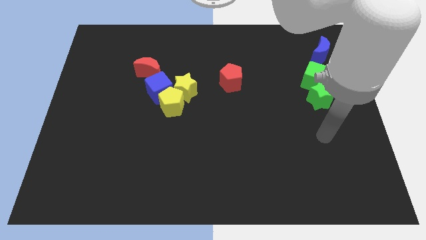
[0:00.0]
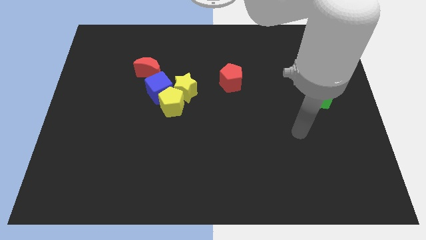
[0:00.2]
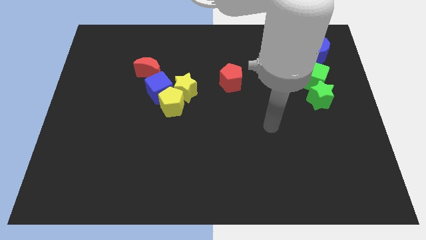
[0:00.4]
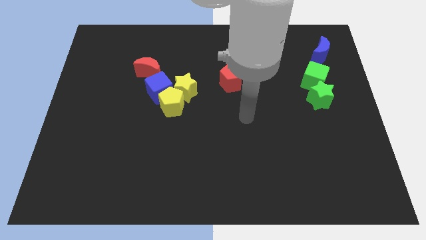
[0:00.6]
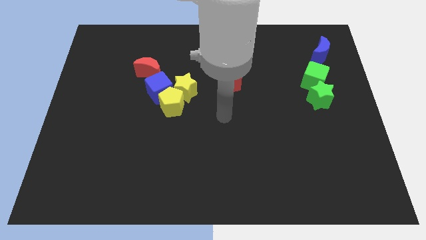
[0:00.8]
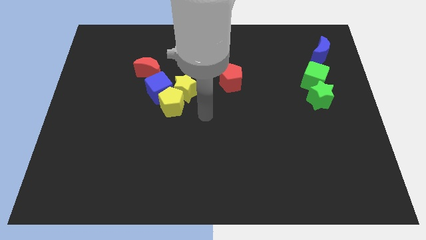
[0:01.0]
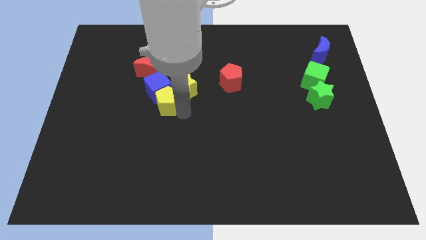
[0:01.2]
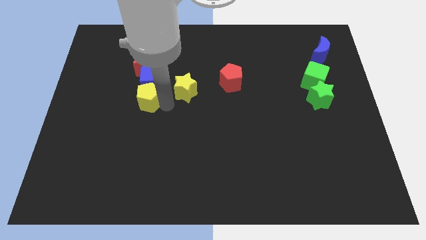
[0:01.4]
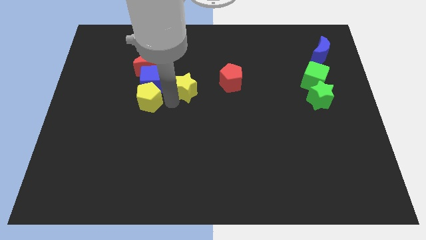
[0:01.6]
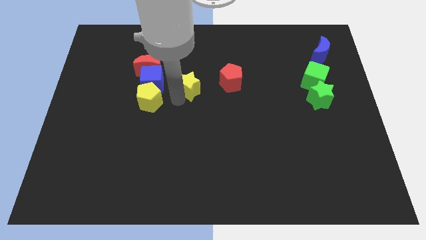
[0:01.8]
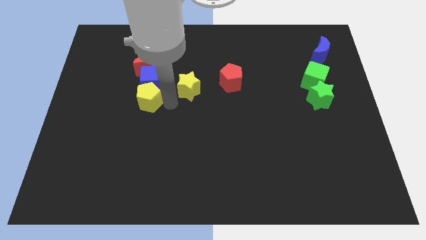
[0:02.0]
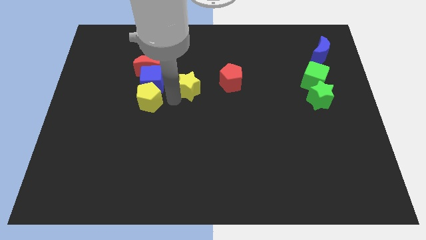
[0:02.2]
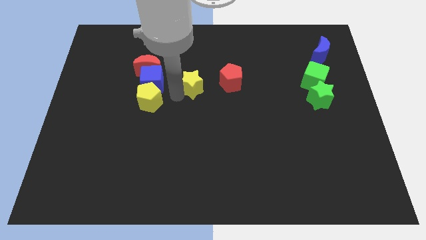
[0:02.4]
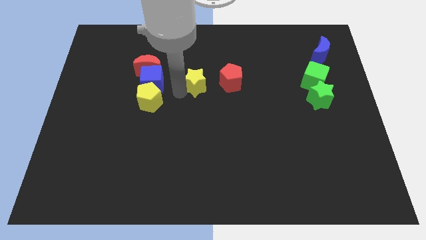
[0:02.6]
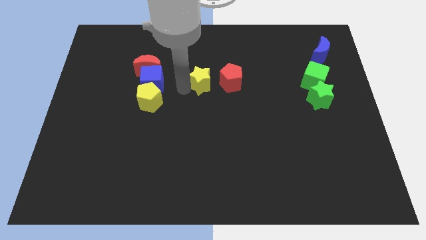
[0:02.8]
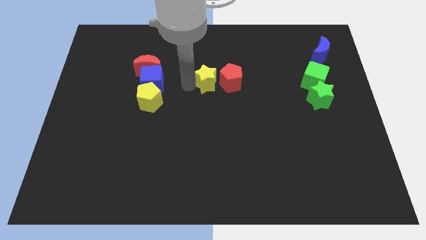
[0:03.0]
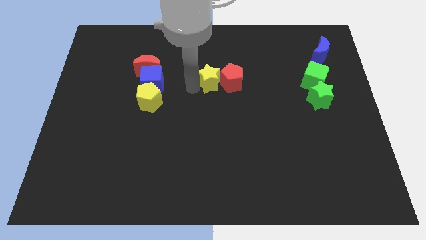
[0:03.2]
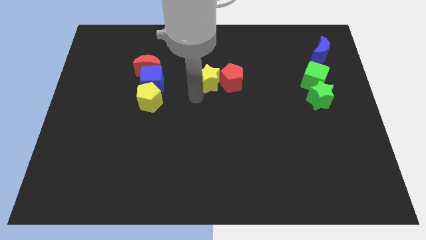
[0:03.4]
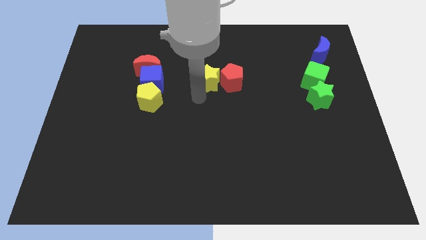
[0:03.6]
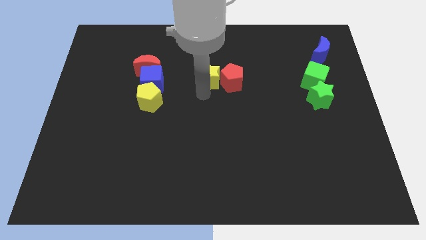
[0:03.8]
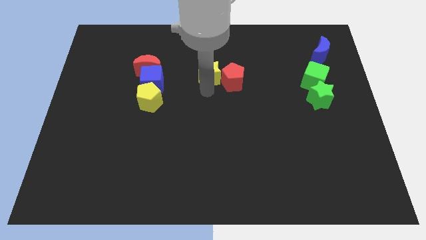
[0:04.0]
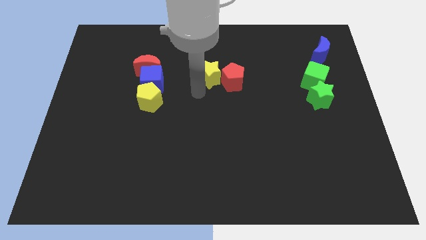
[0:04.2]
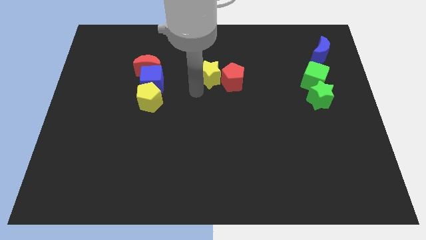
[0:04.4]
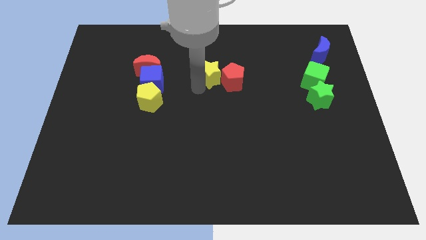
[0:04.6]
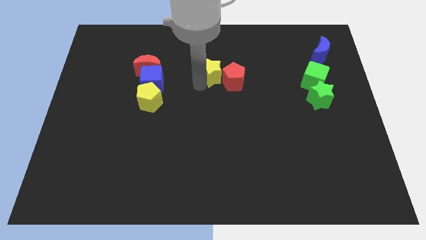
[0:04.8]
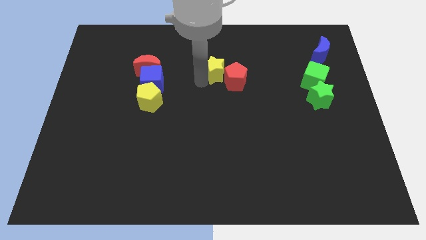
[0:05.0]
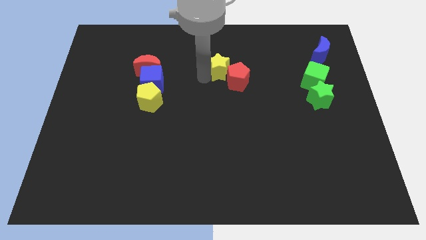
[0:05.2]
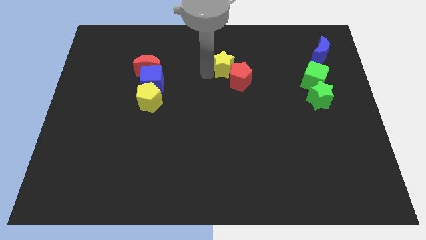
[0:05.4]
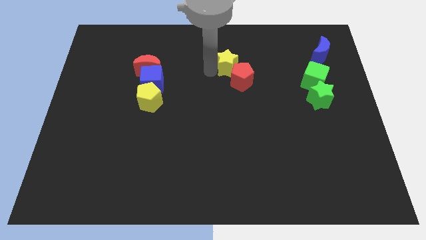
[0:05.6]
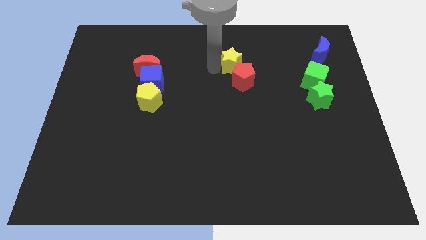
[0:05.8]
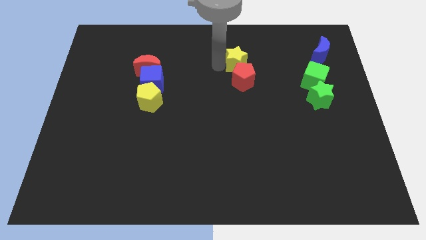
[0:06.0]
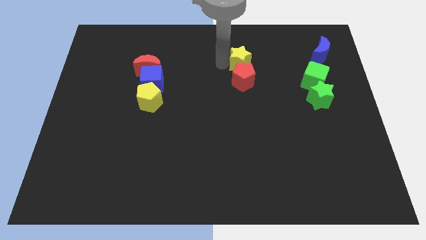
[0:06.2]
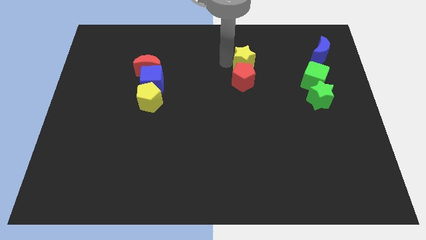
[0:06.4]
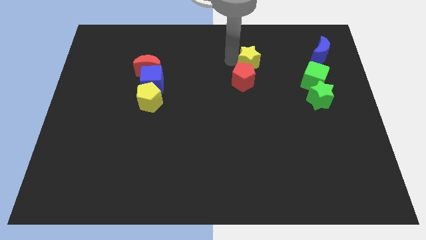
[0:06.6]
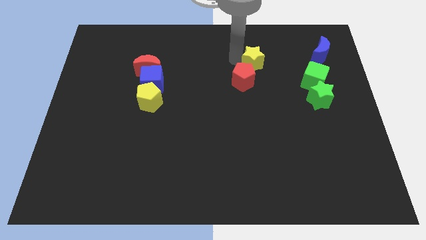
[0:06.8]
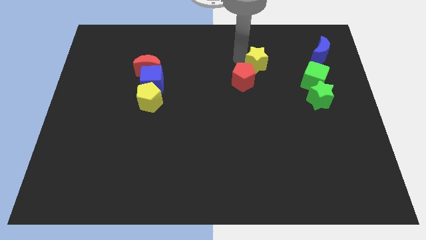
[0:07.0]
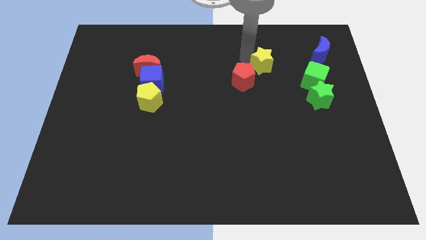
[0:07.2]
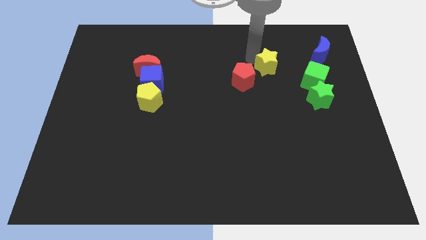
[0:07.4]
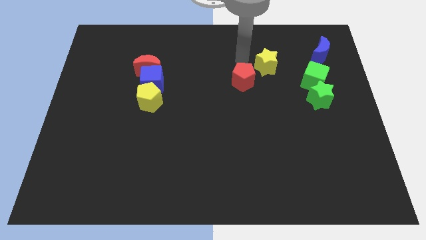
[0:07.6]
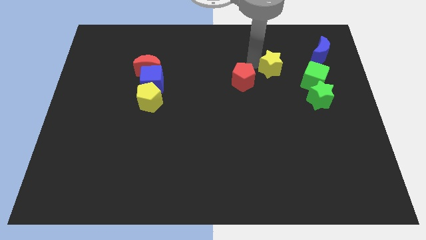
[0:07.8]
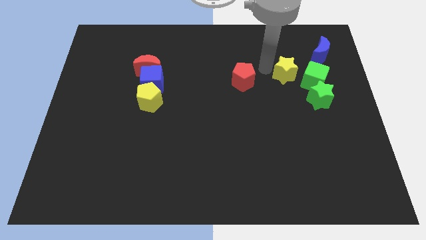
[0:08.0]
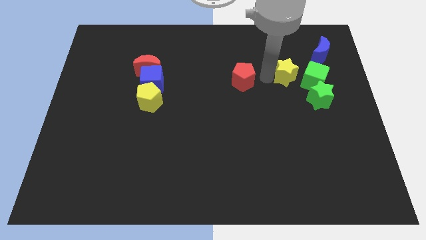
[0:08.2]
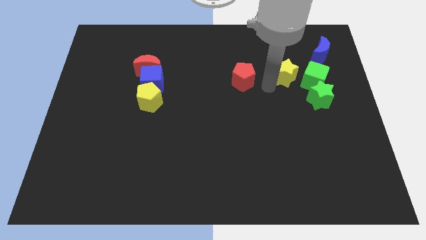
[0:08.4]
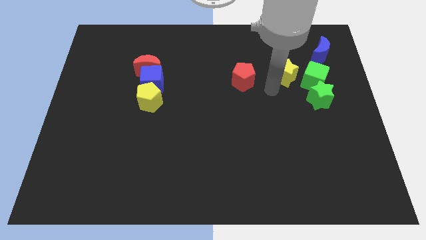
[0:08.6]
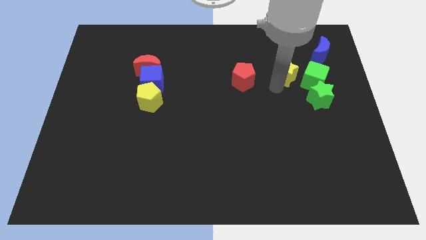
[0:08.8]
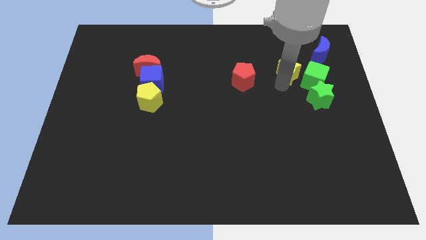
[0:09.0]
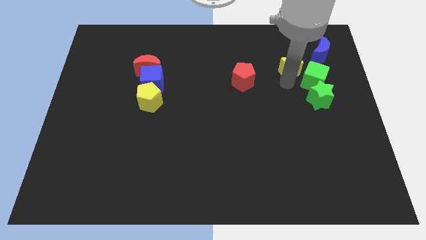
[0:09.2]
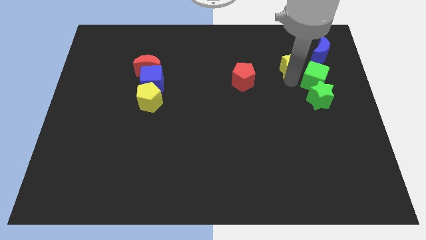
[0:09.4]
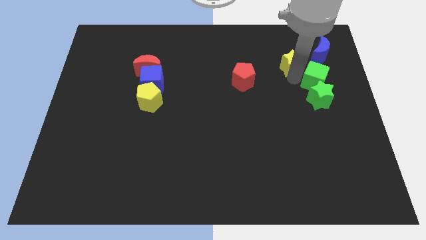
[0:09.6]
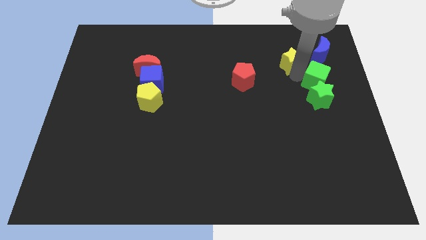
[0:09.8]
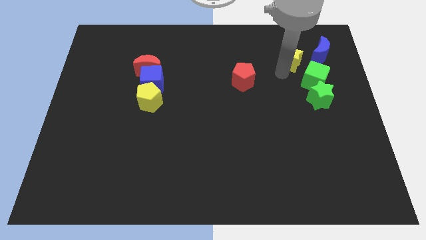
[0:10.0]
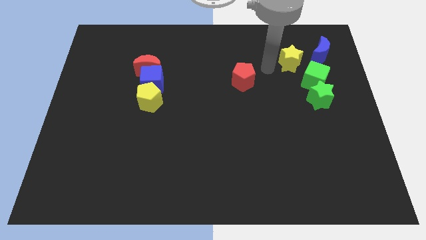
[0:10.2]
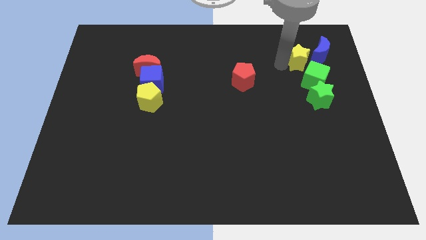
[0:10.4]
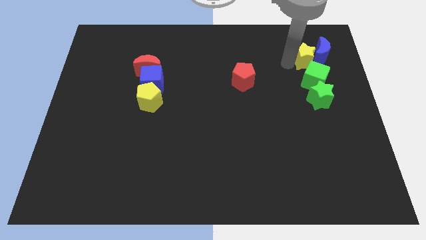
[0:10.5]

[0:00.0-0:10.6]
put the yellow star towards the blue moon

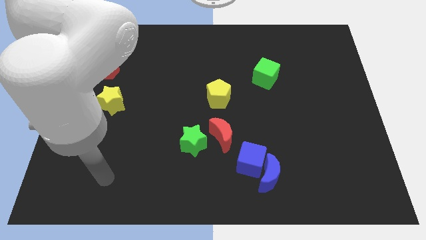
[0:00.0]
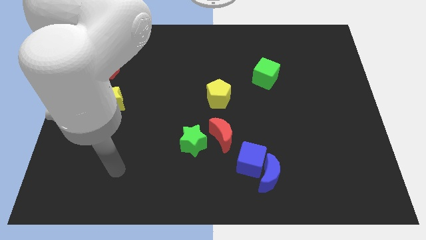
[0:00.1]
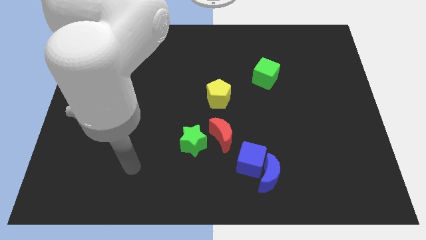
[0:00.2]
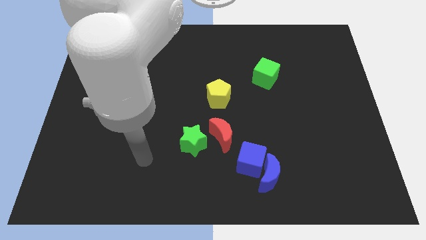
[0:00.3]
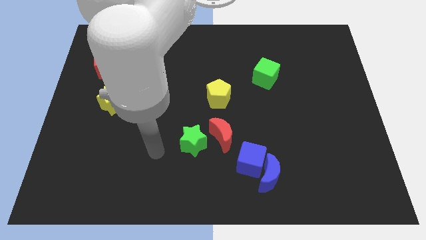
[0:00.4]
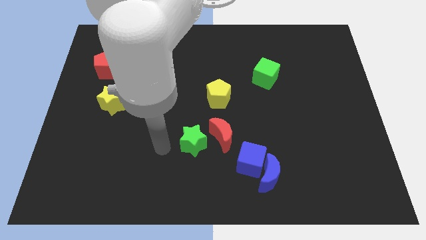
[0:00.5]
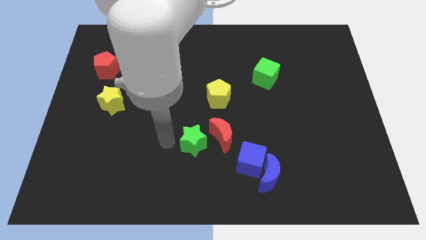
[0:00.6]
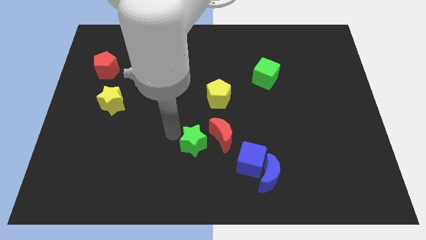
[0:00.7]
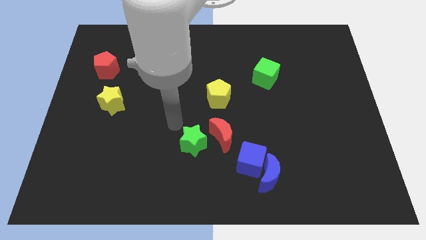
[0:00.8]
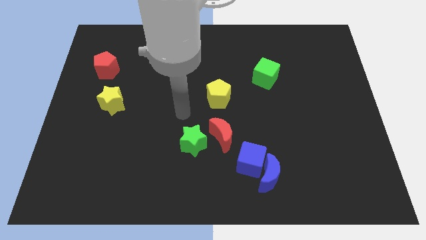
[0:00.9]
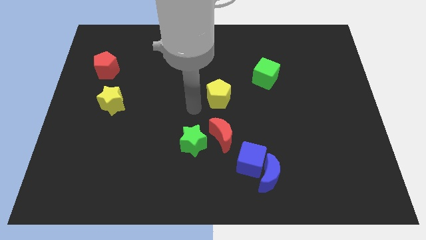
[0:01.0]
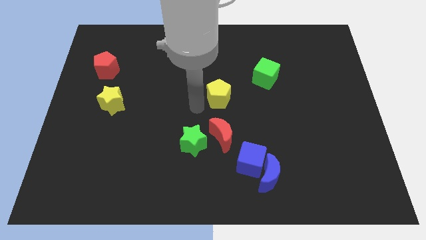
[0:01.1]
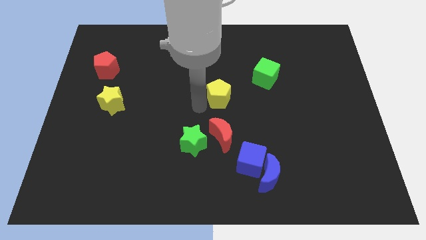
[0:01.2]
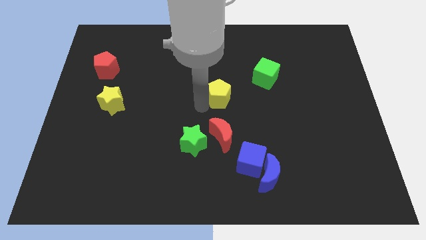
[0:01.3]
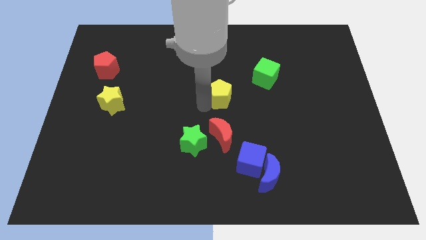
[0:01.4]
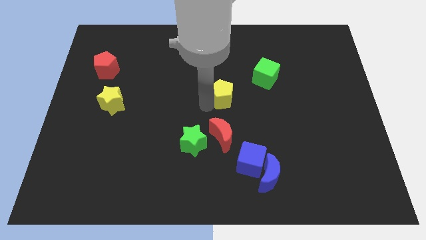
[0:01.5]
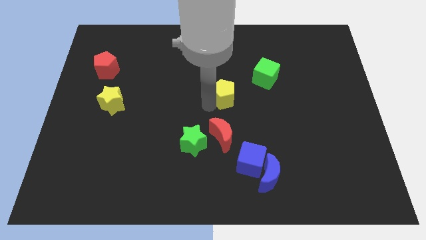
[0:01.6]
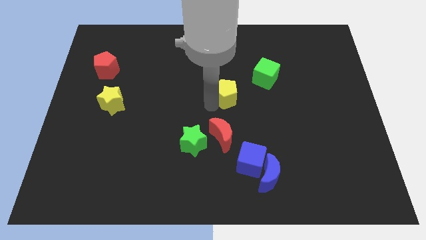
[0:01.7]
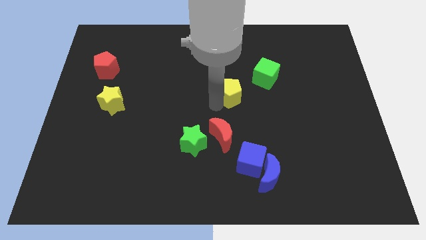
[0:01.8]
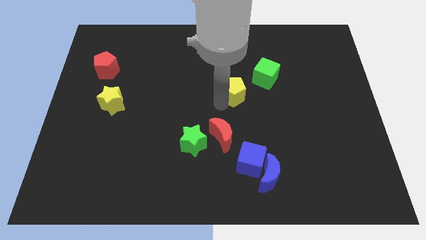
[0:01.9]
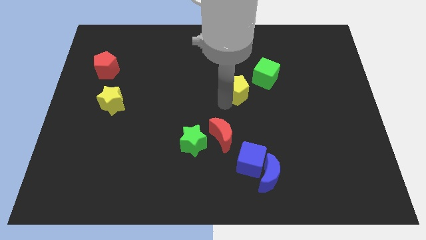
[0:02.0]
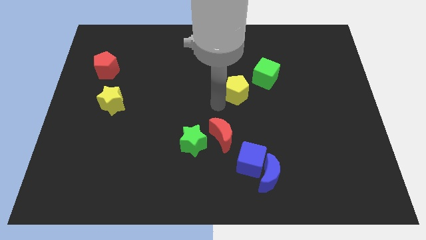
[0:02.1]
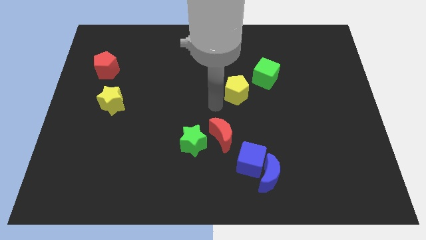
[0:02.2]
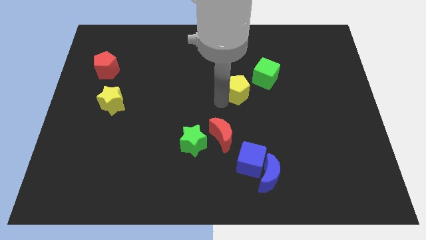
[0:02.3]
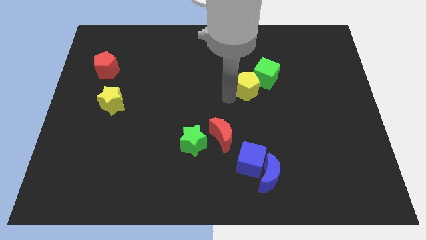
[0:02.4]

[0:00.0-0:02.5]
move the yellow pentagon next to the green cube

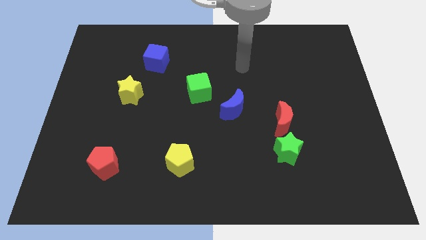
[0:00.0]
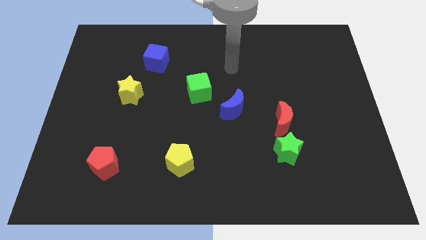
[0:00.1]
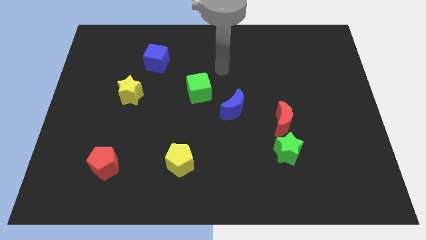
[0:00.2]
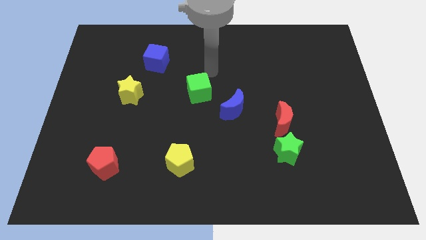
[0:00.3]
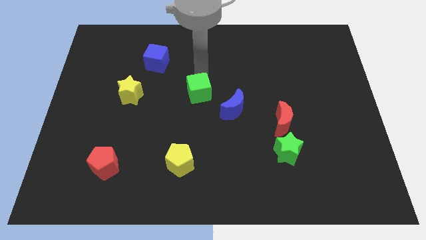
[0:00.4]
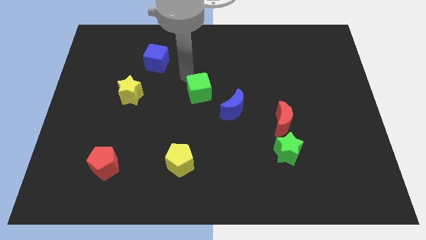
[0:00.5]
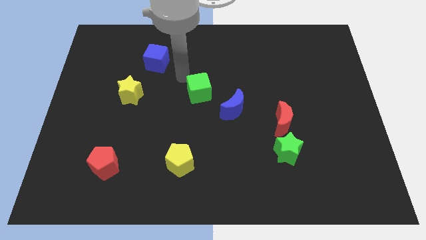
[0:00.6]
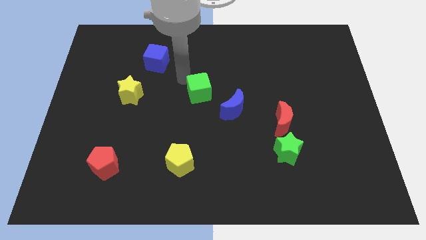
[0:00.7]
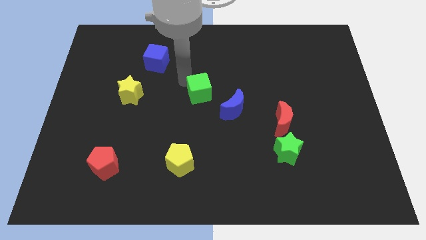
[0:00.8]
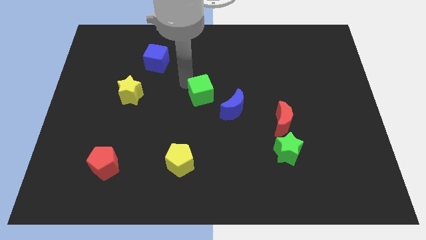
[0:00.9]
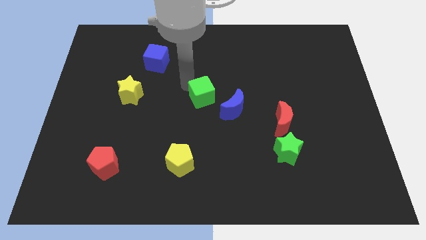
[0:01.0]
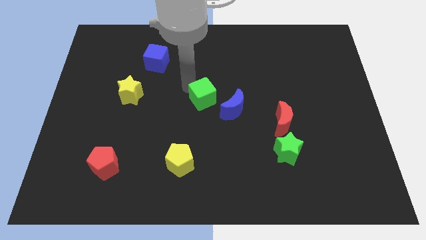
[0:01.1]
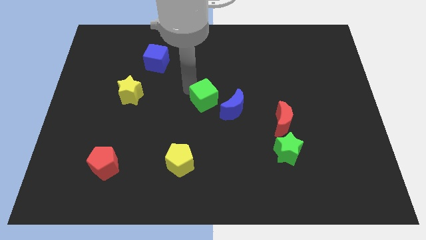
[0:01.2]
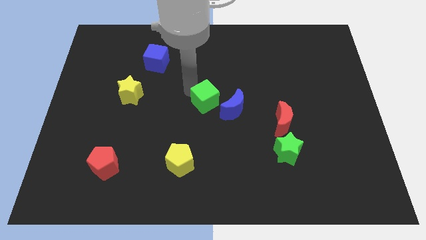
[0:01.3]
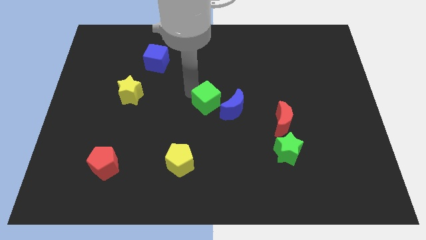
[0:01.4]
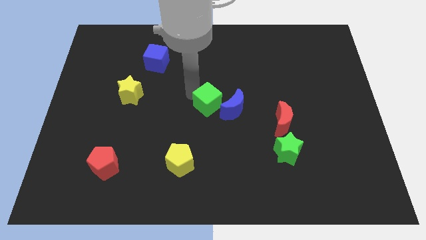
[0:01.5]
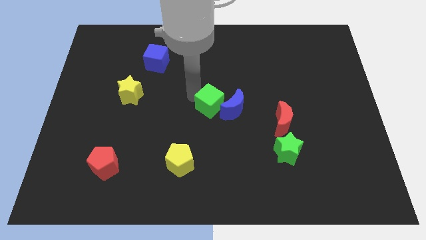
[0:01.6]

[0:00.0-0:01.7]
push the green cube to the blue moon
